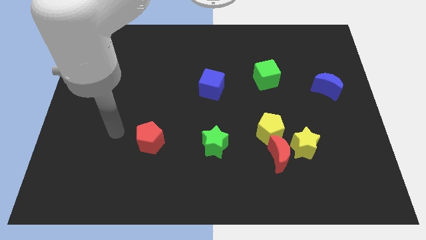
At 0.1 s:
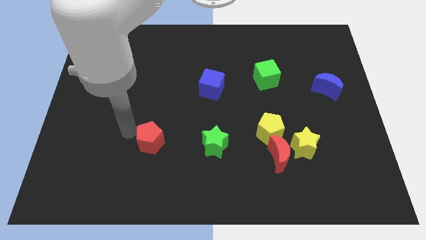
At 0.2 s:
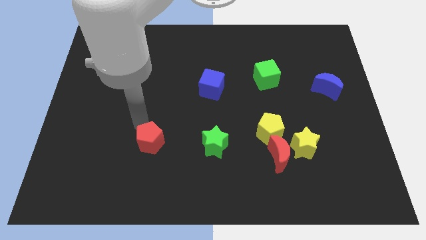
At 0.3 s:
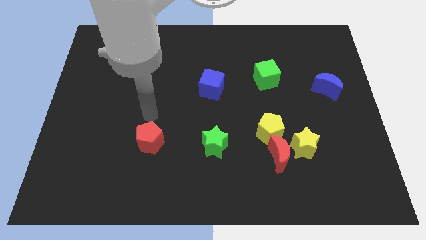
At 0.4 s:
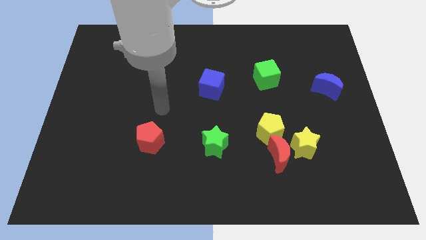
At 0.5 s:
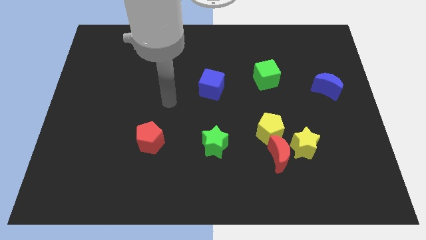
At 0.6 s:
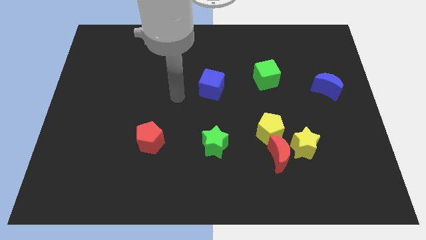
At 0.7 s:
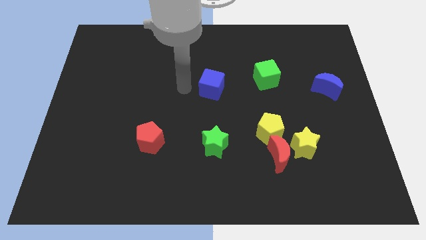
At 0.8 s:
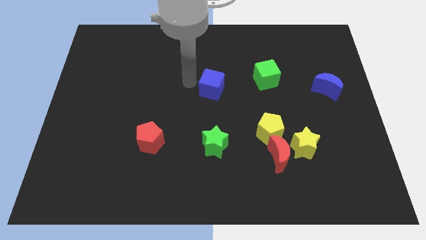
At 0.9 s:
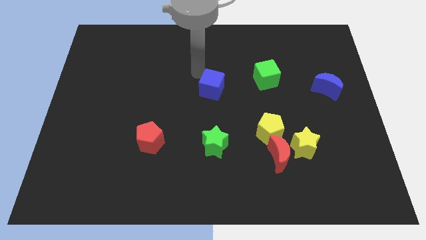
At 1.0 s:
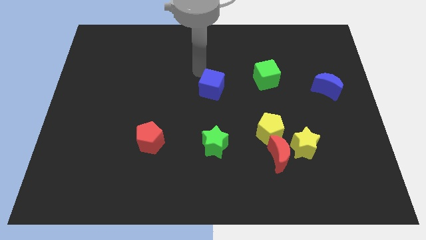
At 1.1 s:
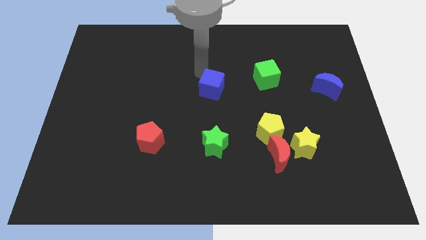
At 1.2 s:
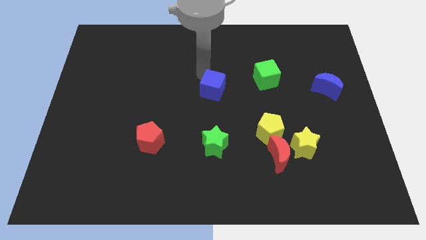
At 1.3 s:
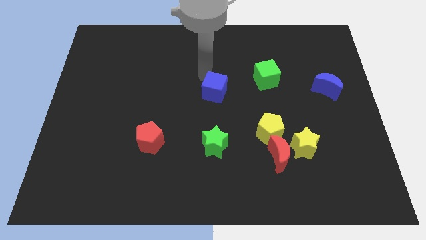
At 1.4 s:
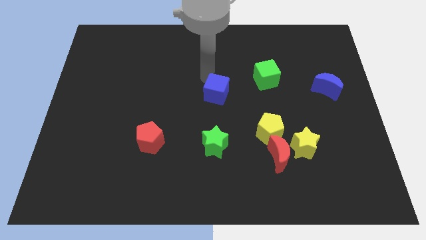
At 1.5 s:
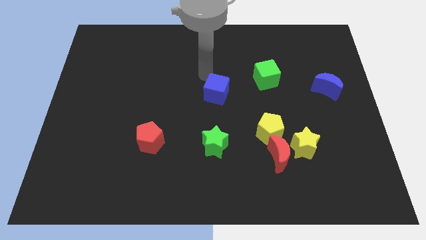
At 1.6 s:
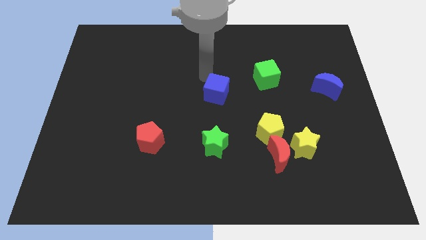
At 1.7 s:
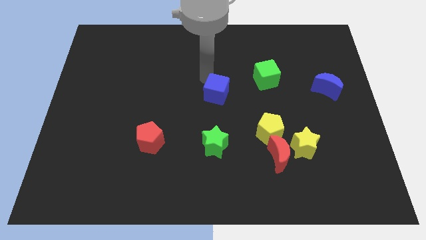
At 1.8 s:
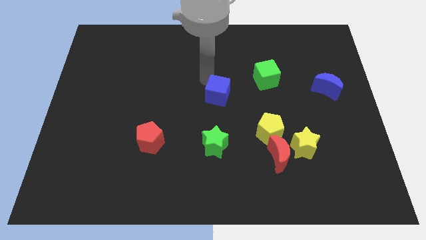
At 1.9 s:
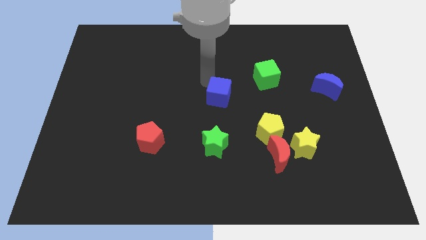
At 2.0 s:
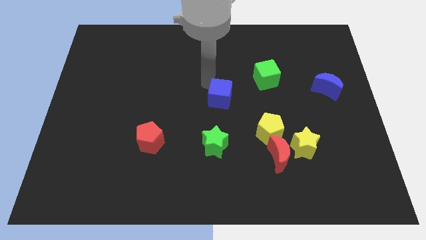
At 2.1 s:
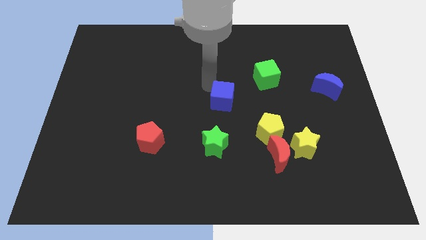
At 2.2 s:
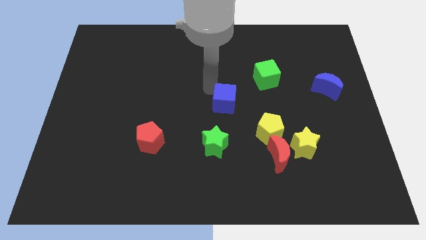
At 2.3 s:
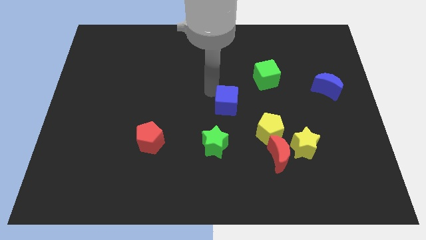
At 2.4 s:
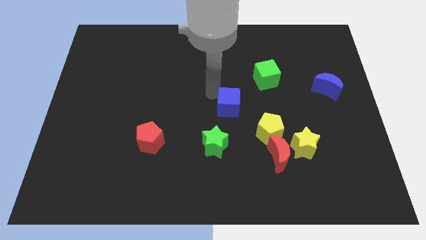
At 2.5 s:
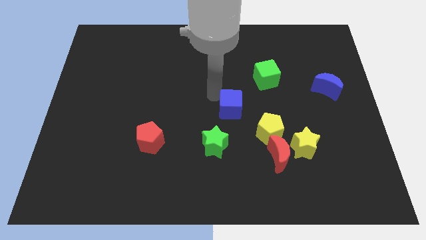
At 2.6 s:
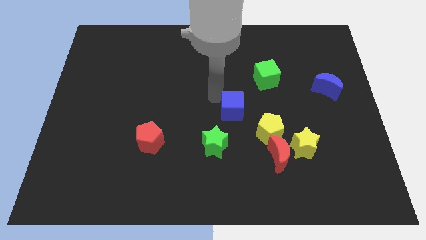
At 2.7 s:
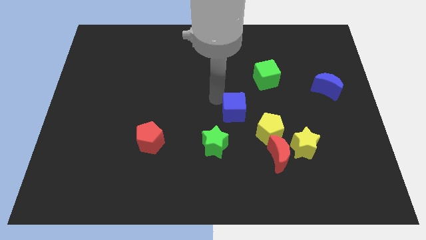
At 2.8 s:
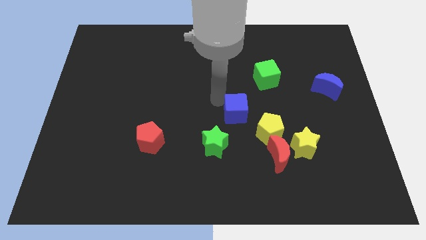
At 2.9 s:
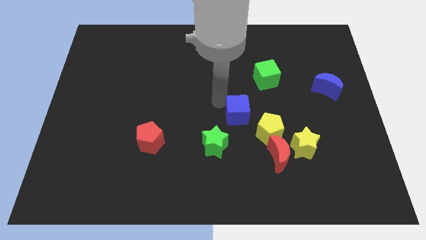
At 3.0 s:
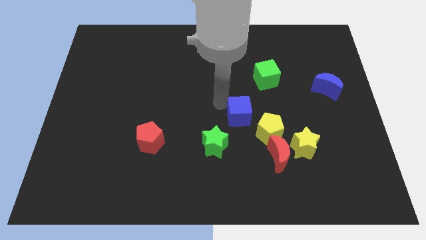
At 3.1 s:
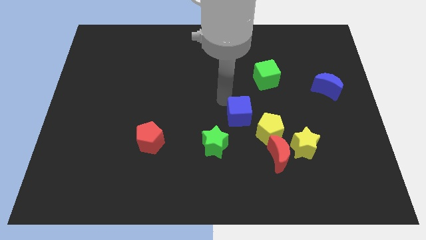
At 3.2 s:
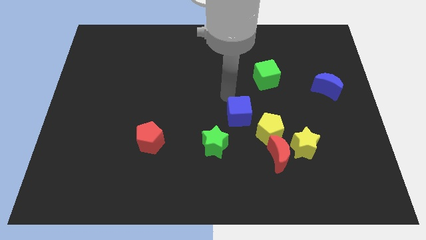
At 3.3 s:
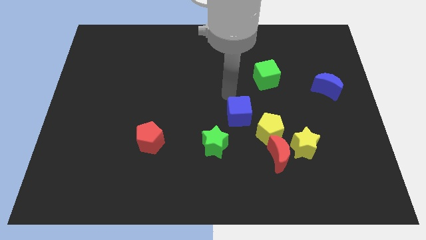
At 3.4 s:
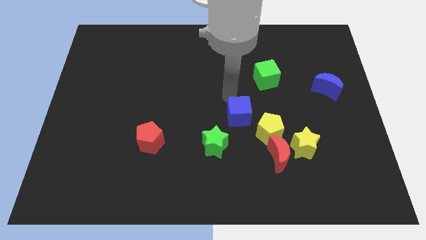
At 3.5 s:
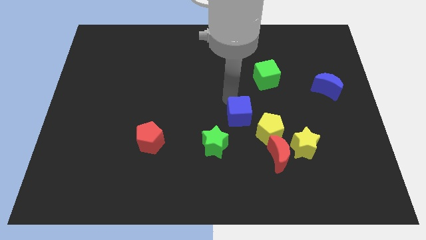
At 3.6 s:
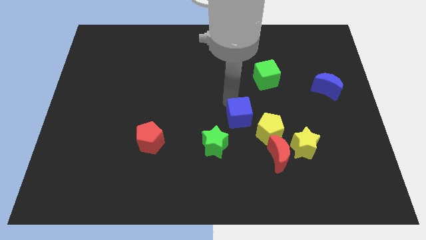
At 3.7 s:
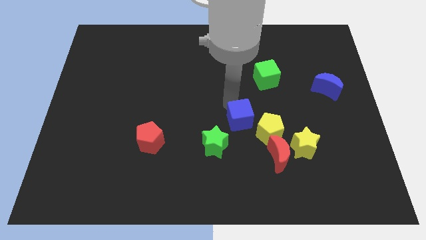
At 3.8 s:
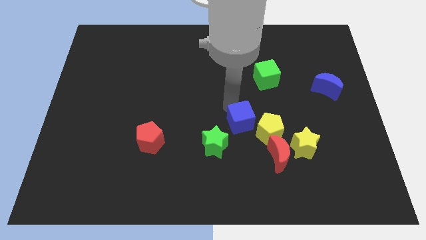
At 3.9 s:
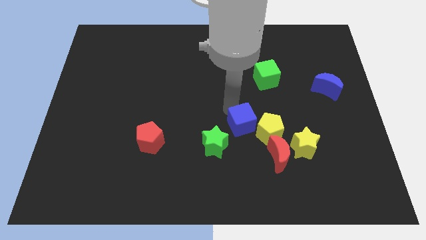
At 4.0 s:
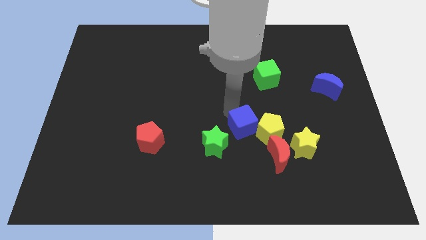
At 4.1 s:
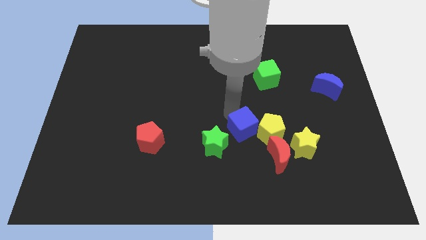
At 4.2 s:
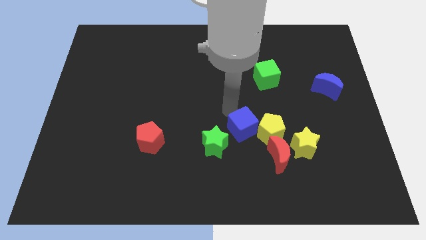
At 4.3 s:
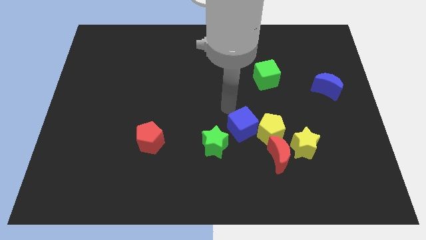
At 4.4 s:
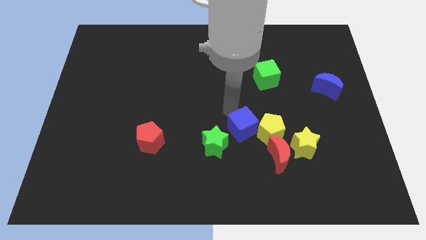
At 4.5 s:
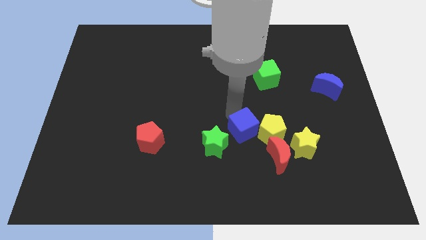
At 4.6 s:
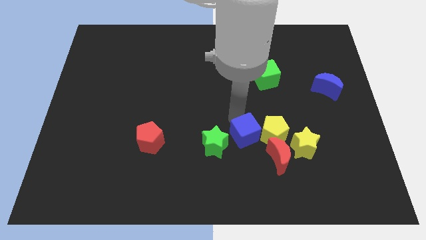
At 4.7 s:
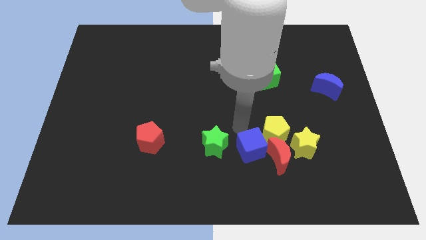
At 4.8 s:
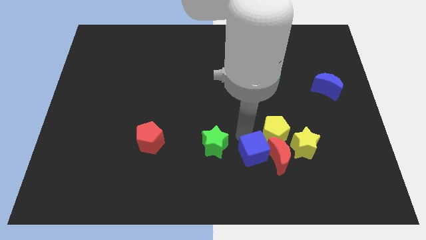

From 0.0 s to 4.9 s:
push the blue cube to the bottom of the yellow pentagon

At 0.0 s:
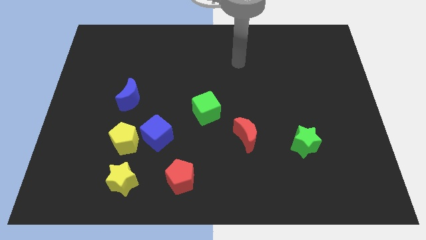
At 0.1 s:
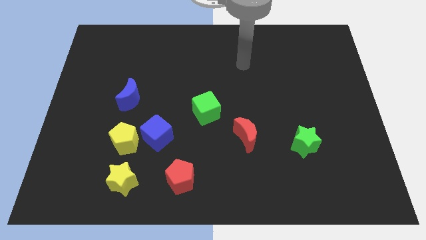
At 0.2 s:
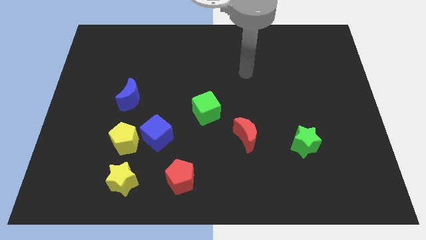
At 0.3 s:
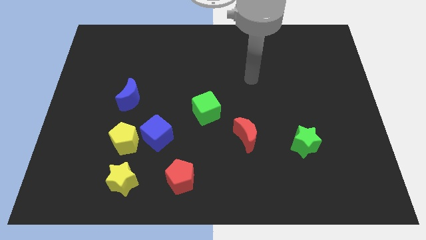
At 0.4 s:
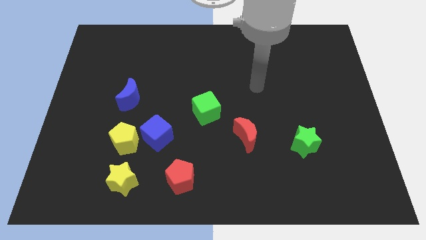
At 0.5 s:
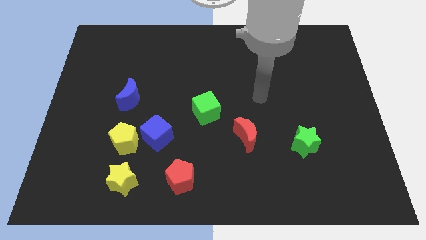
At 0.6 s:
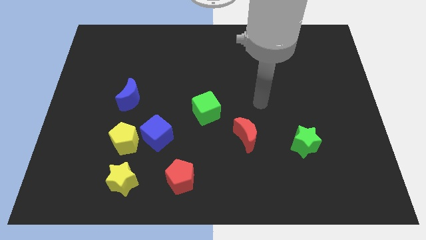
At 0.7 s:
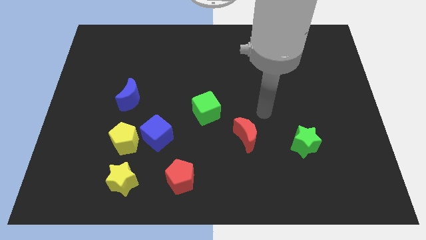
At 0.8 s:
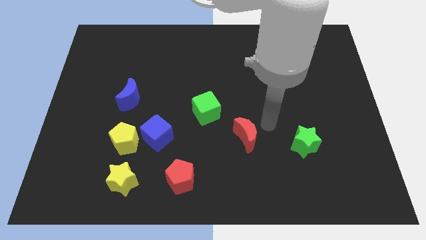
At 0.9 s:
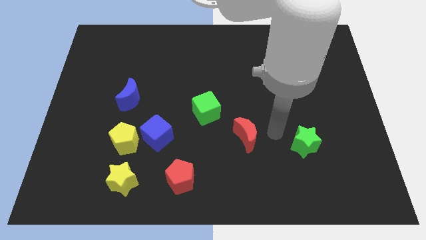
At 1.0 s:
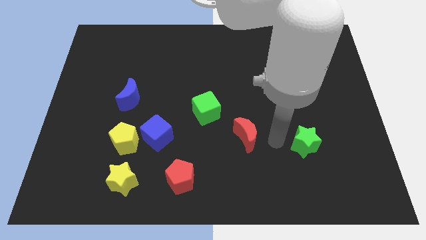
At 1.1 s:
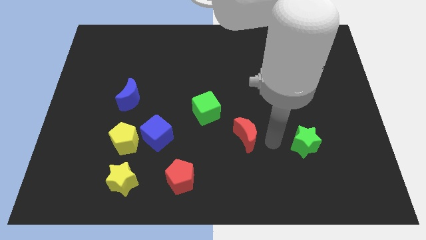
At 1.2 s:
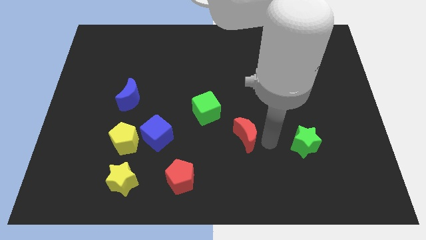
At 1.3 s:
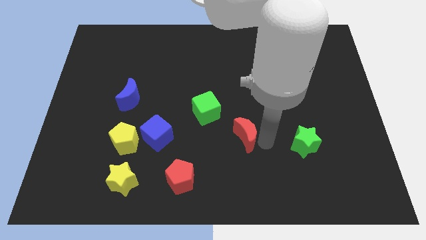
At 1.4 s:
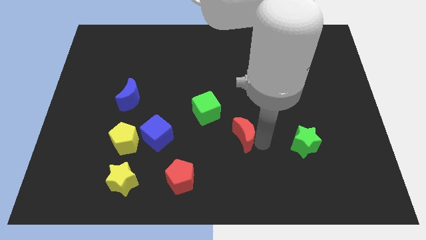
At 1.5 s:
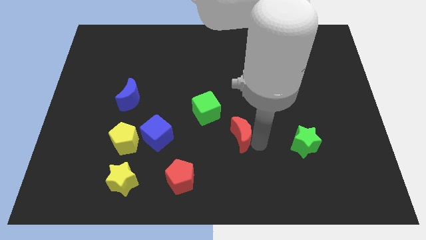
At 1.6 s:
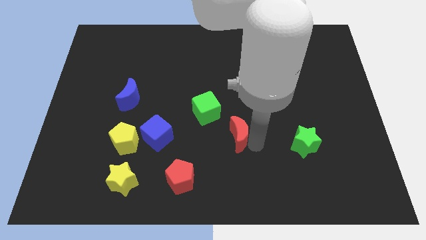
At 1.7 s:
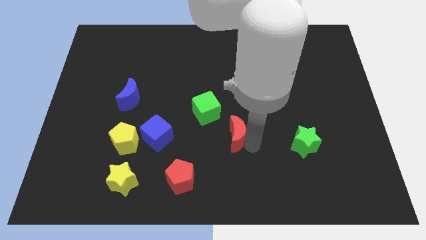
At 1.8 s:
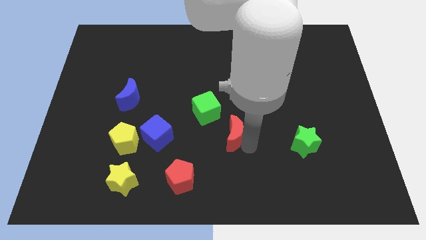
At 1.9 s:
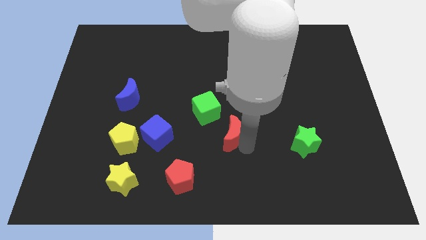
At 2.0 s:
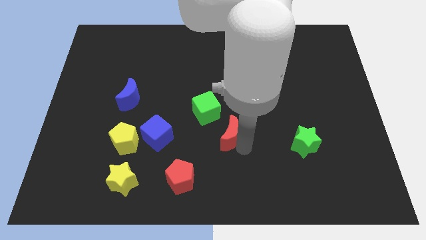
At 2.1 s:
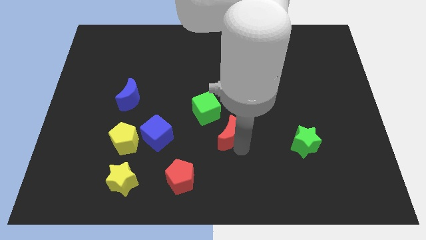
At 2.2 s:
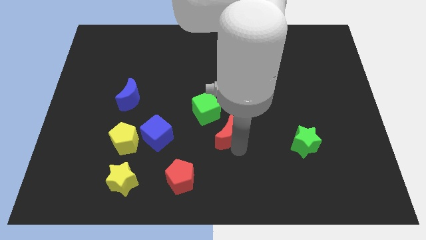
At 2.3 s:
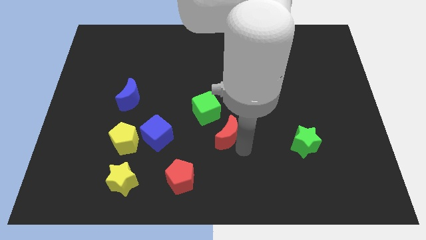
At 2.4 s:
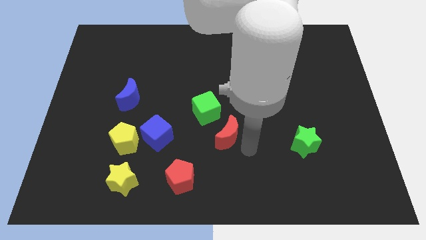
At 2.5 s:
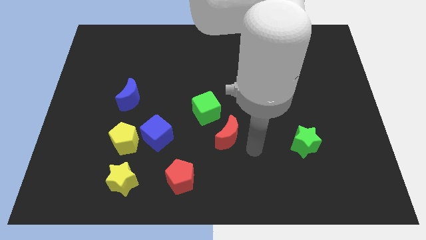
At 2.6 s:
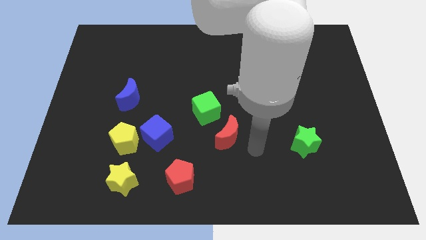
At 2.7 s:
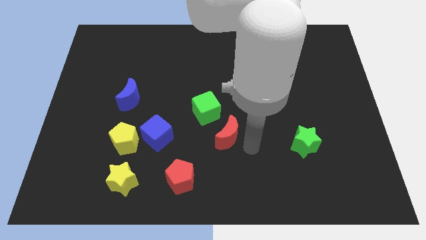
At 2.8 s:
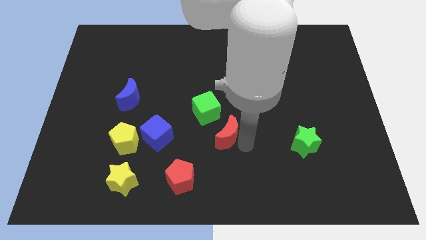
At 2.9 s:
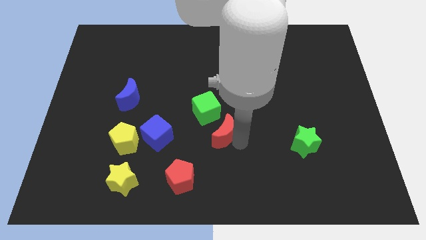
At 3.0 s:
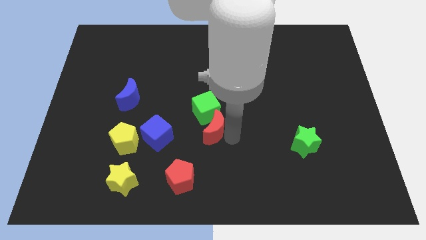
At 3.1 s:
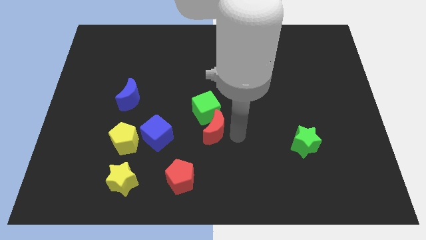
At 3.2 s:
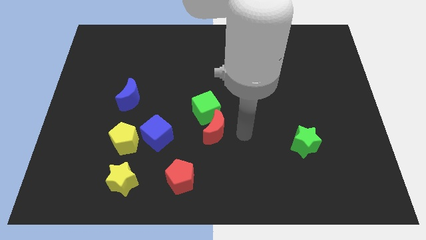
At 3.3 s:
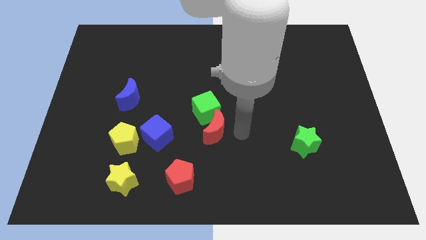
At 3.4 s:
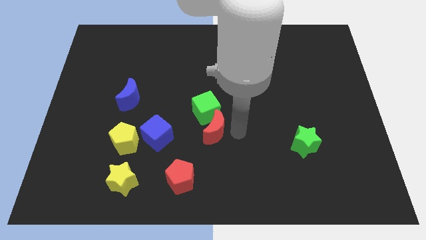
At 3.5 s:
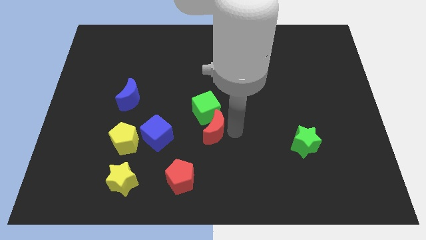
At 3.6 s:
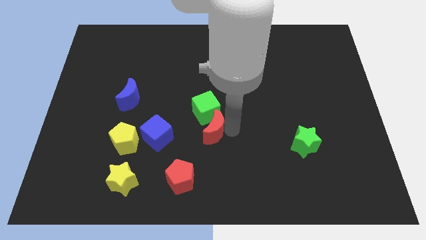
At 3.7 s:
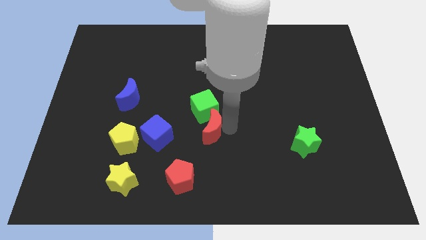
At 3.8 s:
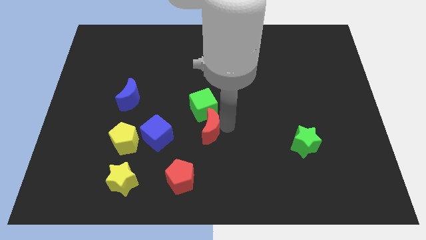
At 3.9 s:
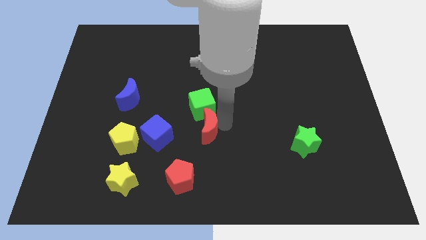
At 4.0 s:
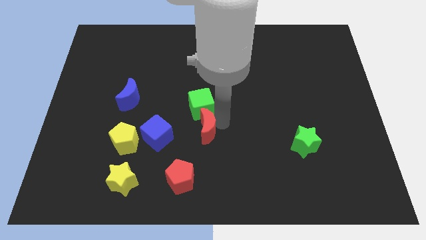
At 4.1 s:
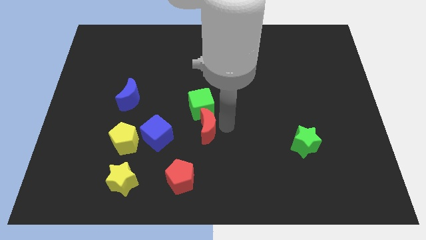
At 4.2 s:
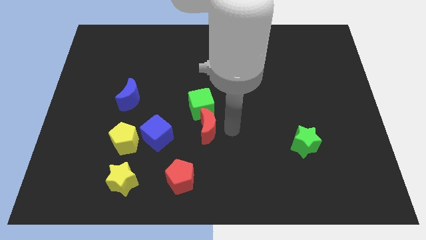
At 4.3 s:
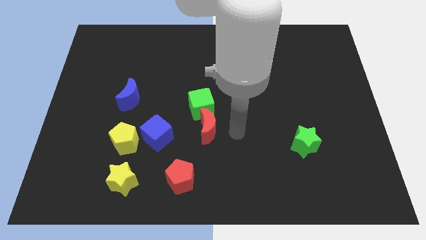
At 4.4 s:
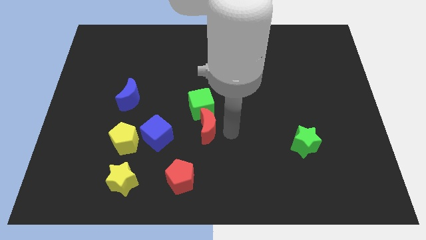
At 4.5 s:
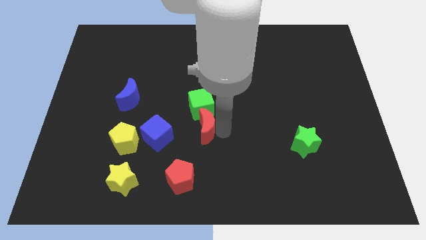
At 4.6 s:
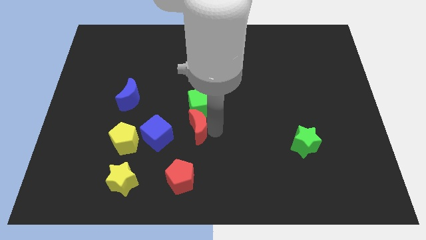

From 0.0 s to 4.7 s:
push the red moon to the bottom left side of the green cube
